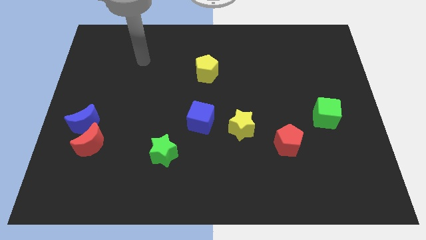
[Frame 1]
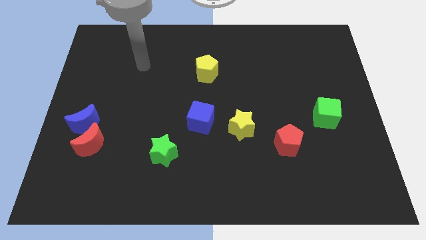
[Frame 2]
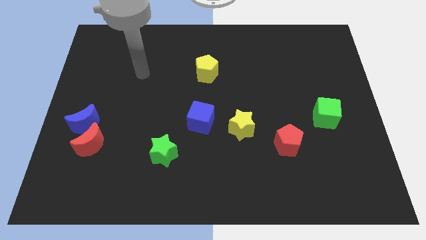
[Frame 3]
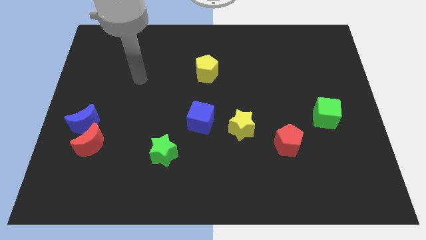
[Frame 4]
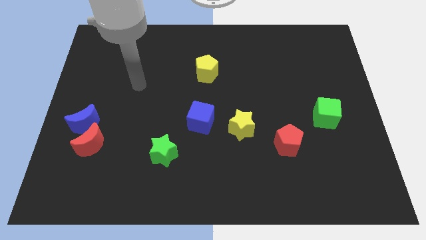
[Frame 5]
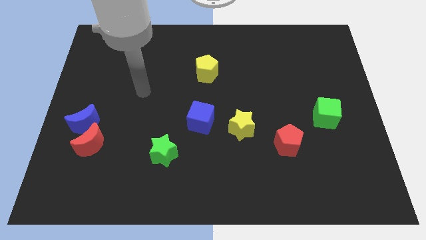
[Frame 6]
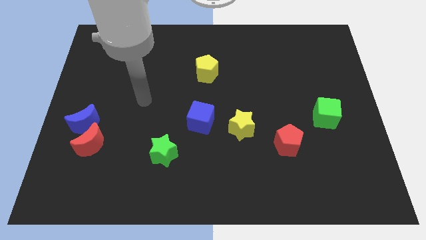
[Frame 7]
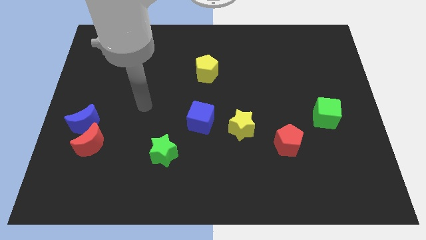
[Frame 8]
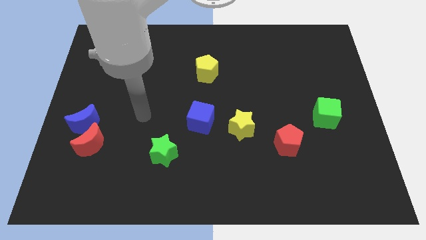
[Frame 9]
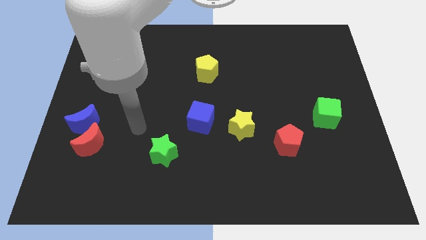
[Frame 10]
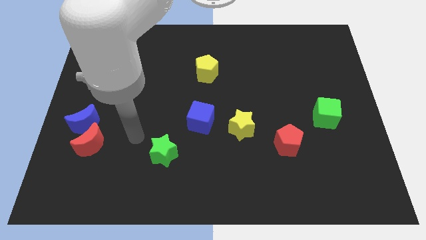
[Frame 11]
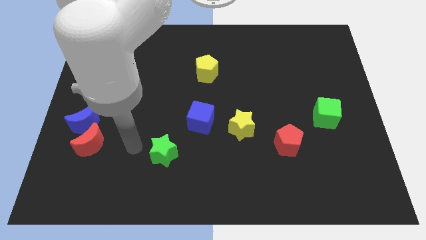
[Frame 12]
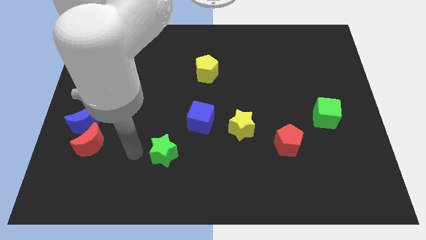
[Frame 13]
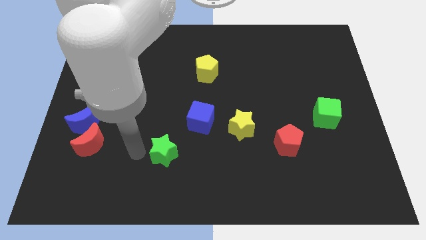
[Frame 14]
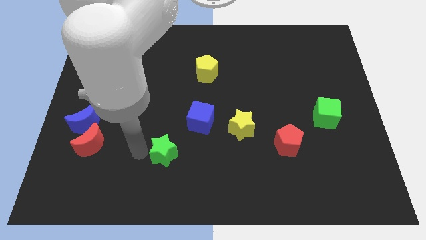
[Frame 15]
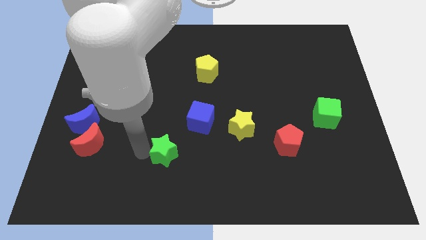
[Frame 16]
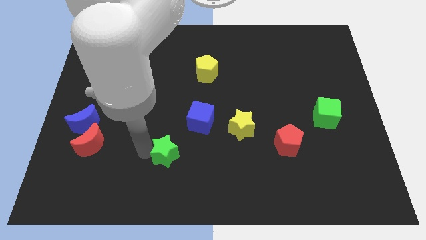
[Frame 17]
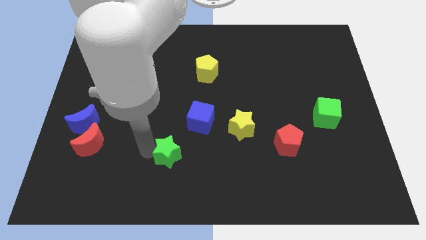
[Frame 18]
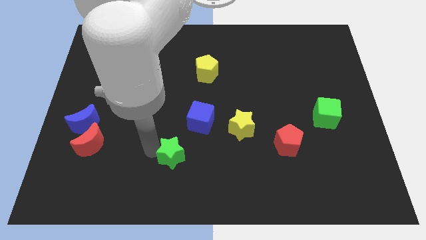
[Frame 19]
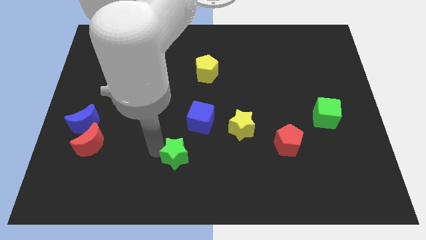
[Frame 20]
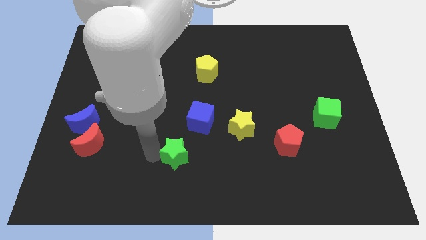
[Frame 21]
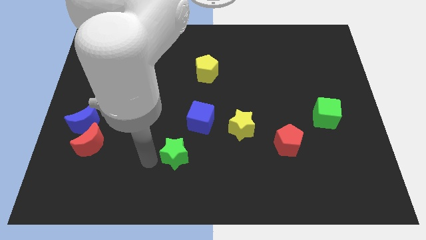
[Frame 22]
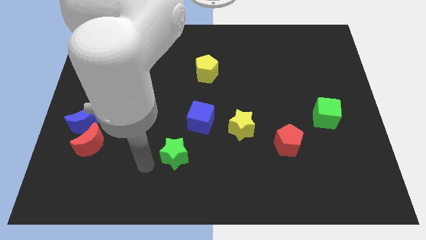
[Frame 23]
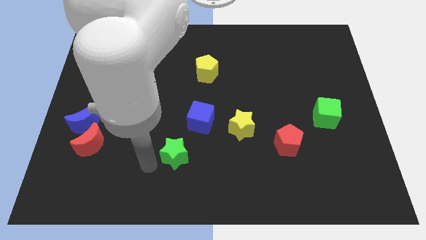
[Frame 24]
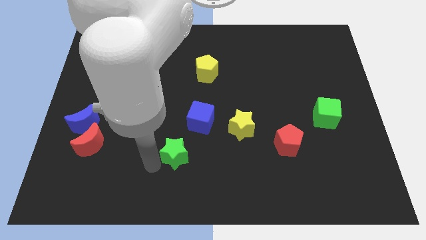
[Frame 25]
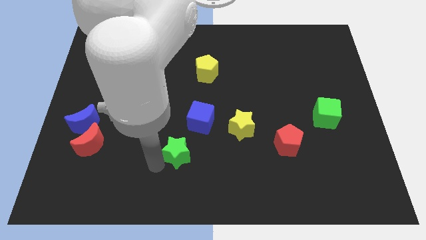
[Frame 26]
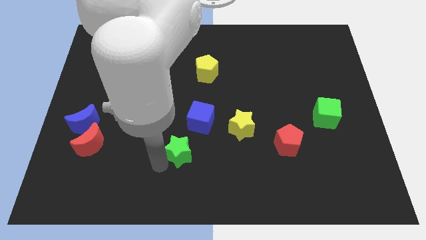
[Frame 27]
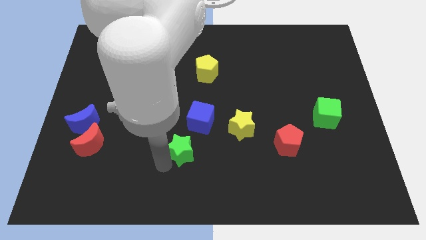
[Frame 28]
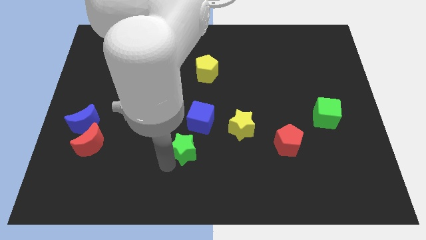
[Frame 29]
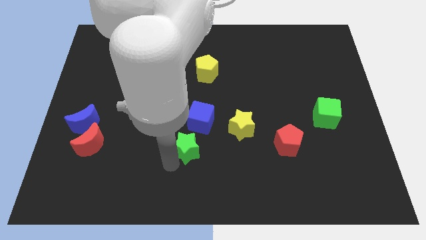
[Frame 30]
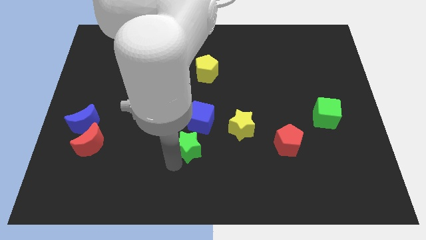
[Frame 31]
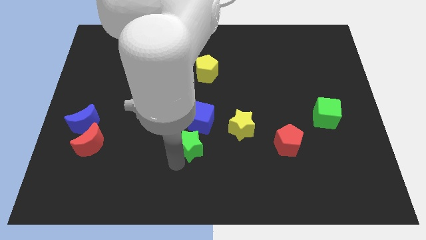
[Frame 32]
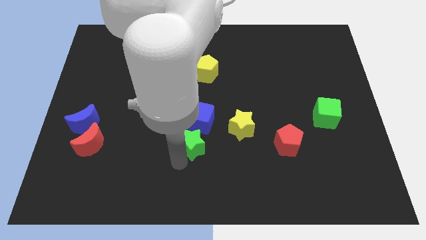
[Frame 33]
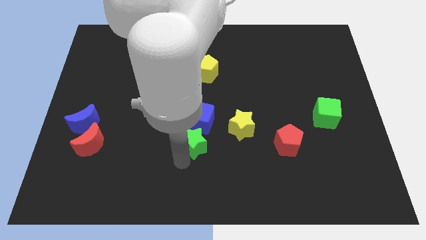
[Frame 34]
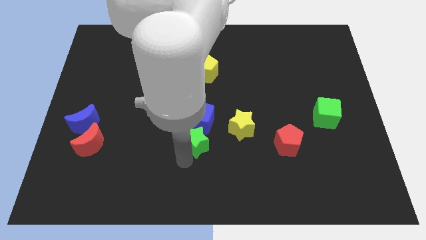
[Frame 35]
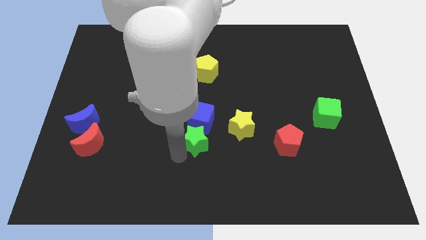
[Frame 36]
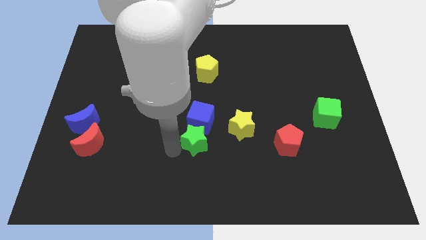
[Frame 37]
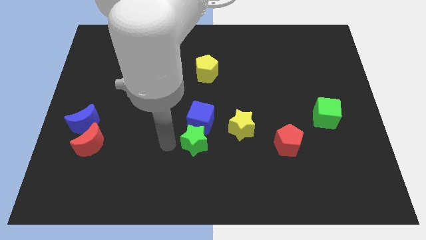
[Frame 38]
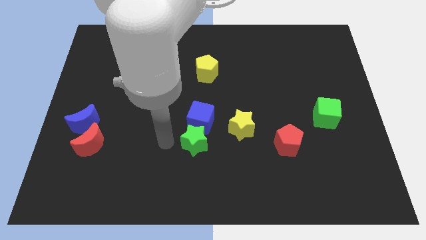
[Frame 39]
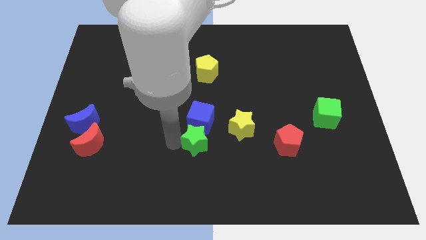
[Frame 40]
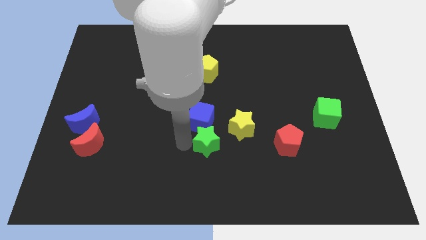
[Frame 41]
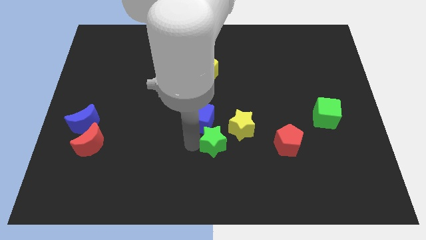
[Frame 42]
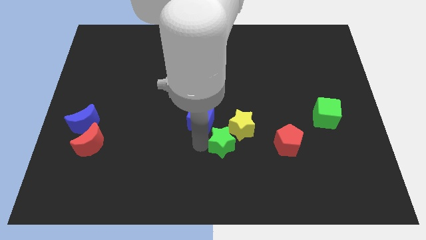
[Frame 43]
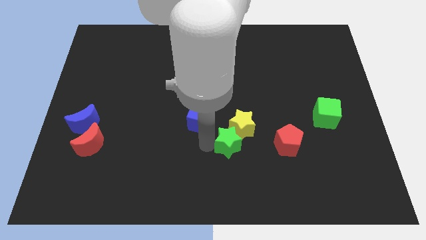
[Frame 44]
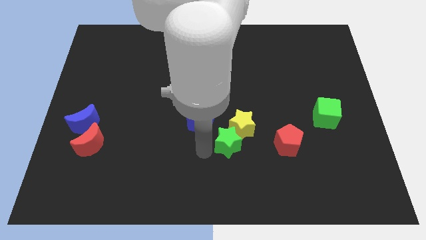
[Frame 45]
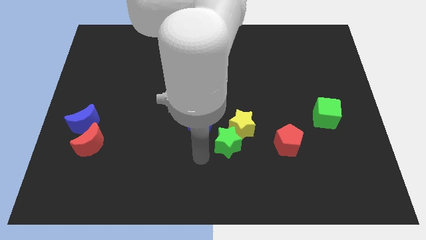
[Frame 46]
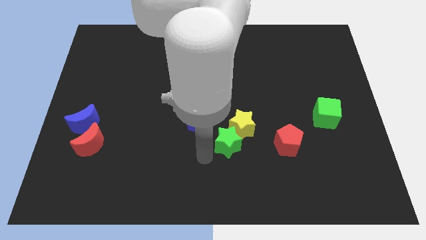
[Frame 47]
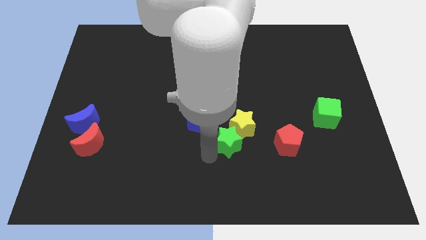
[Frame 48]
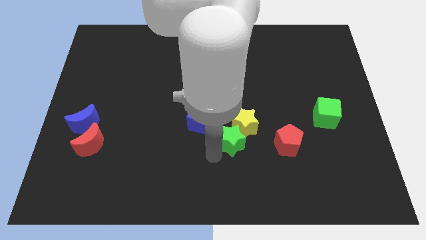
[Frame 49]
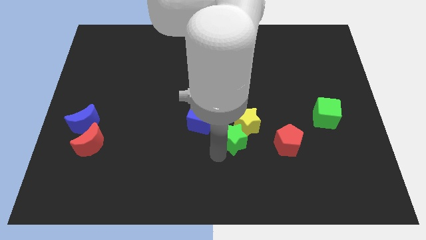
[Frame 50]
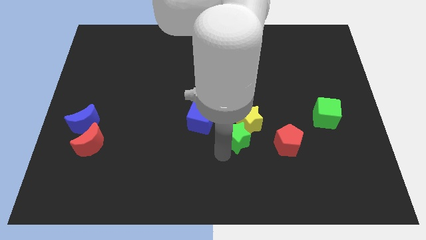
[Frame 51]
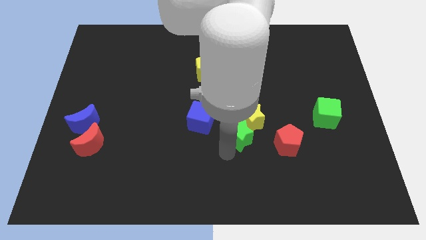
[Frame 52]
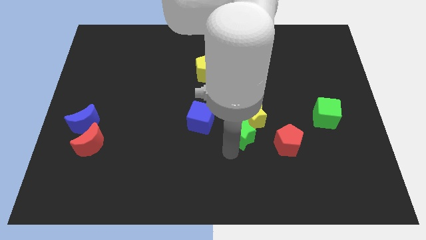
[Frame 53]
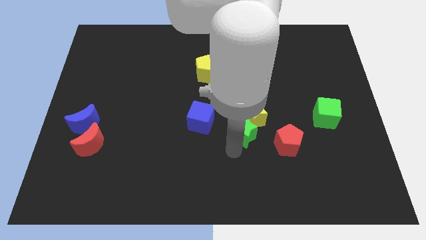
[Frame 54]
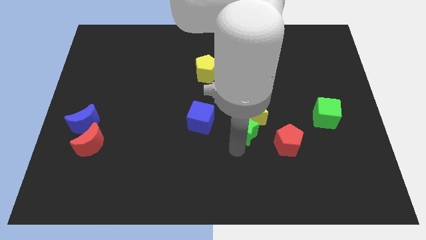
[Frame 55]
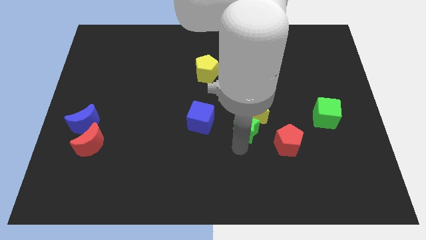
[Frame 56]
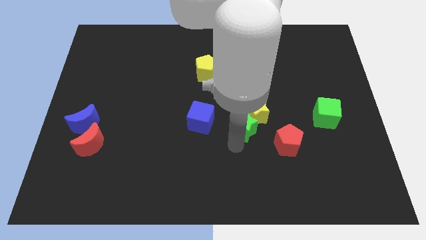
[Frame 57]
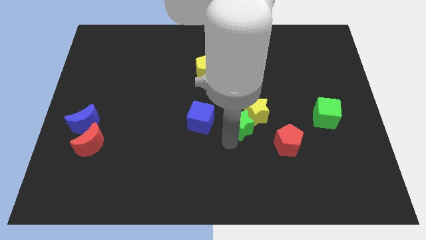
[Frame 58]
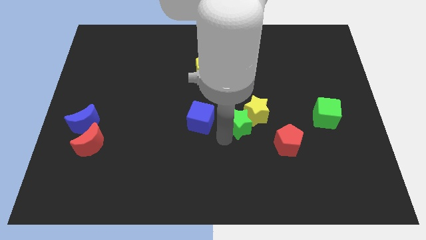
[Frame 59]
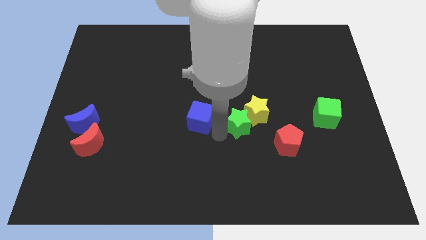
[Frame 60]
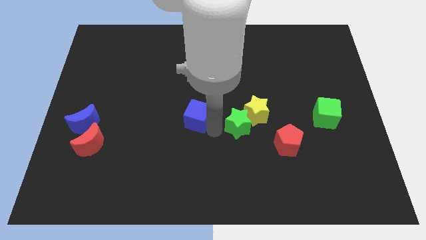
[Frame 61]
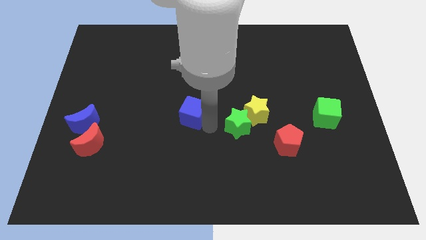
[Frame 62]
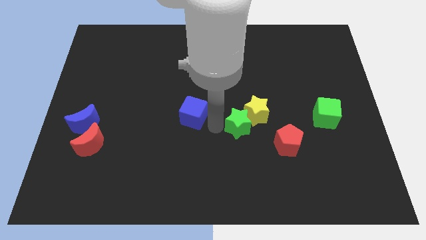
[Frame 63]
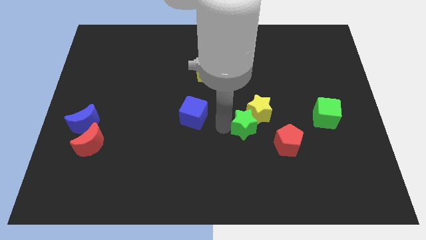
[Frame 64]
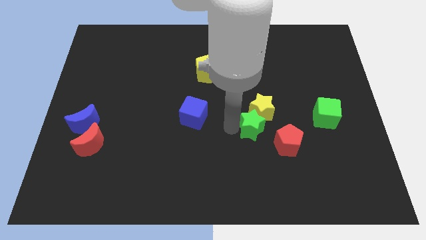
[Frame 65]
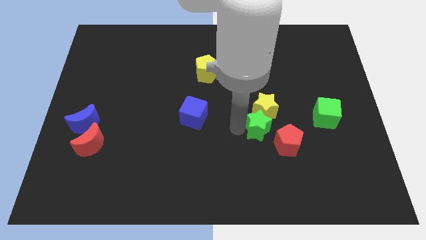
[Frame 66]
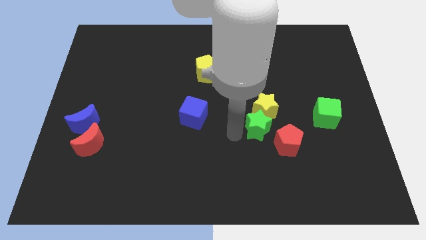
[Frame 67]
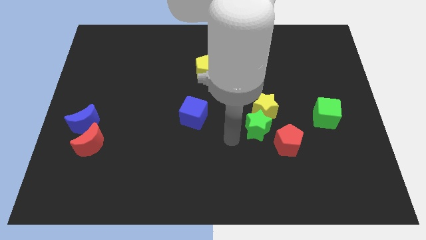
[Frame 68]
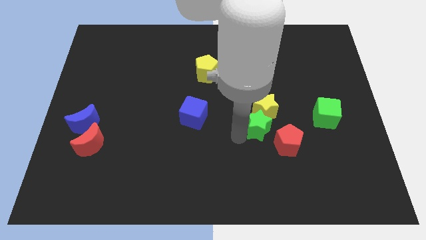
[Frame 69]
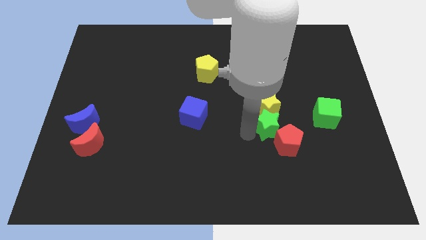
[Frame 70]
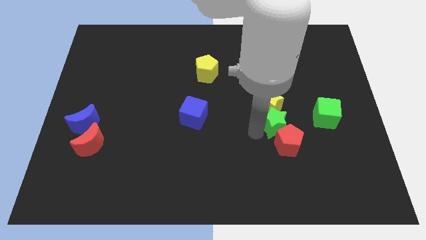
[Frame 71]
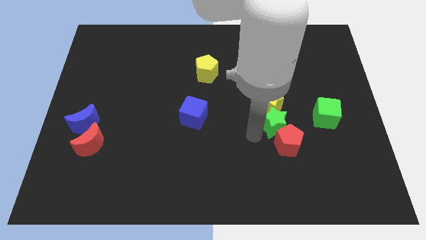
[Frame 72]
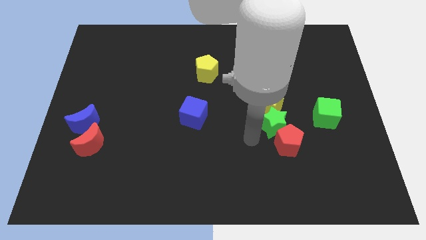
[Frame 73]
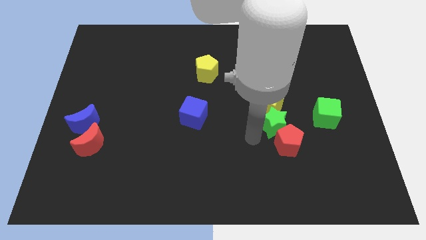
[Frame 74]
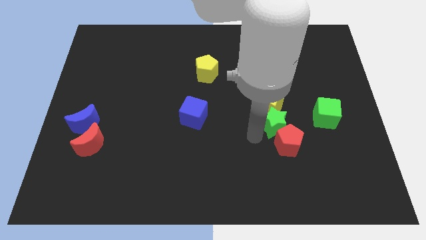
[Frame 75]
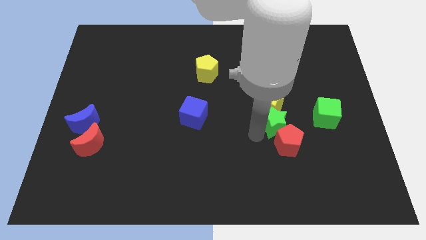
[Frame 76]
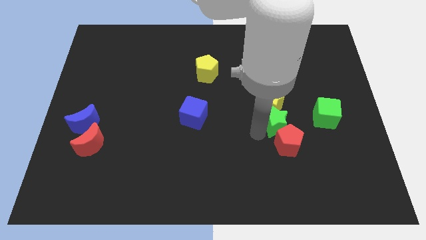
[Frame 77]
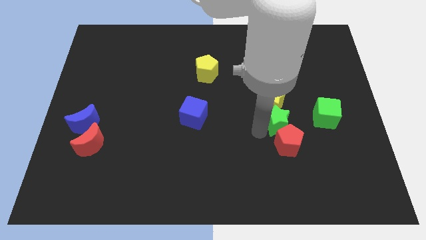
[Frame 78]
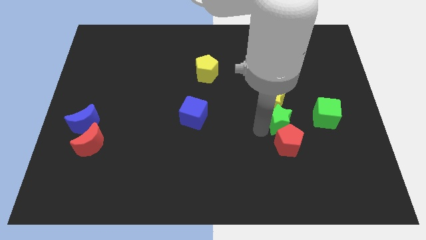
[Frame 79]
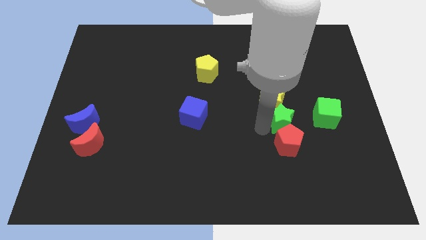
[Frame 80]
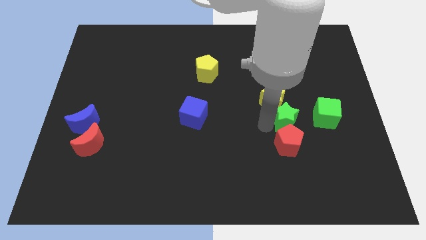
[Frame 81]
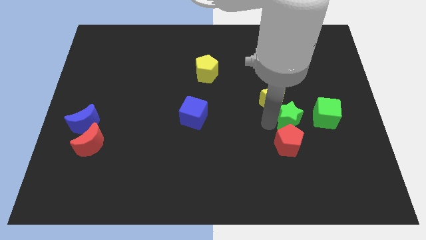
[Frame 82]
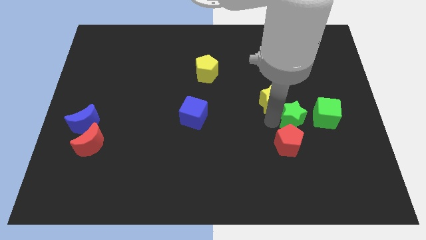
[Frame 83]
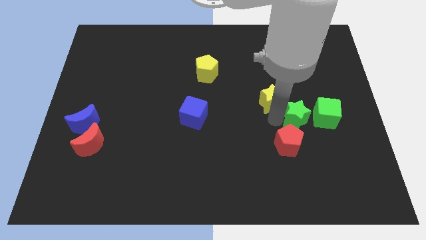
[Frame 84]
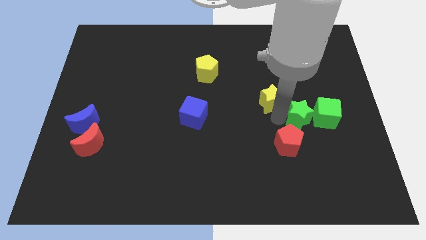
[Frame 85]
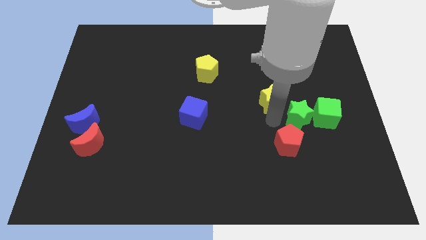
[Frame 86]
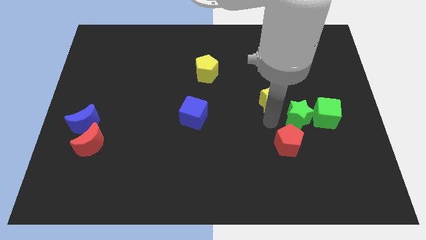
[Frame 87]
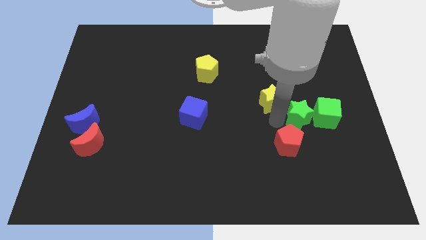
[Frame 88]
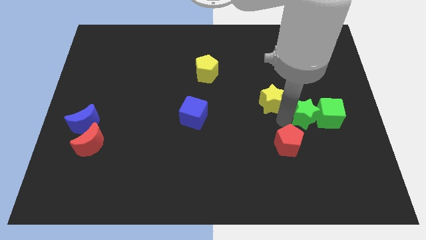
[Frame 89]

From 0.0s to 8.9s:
move the green star to the green cube
